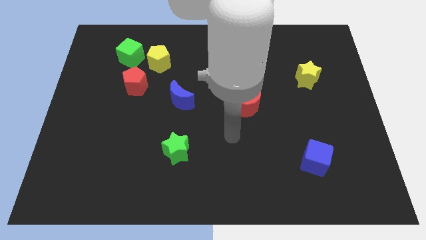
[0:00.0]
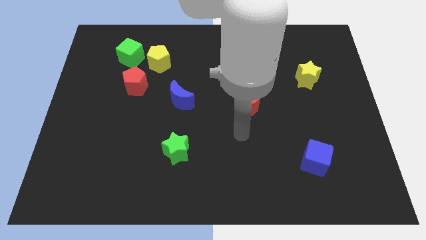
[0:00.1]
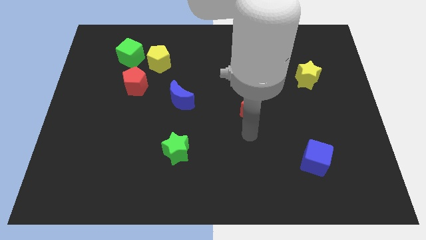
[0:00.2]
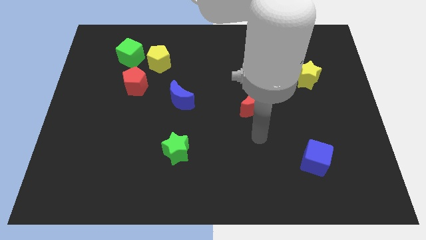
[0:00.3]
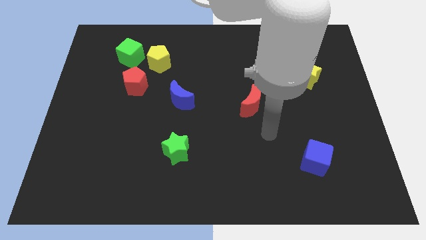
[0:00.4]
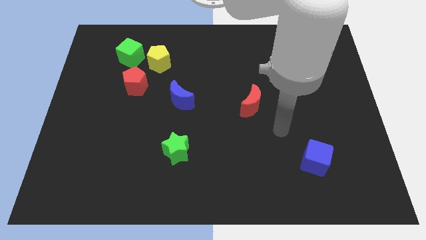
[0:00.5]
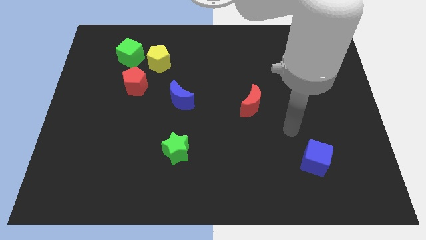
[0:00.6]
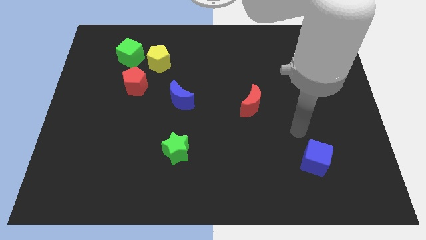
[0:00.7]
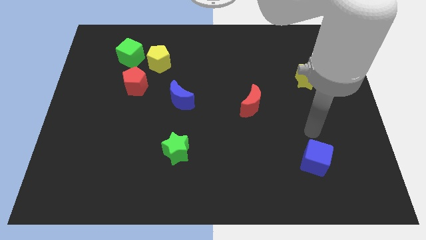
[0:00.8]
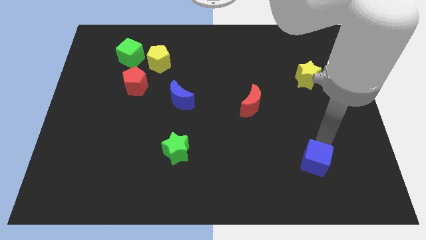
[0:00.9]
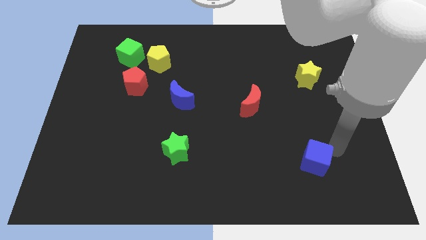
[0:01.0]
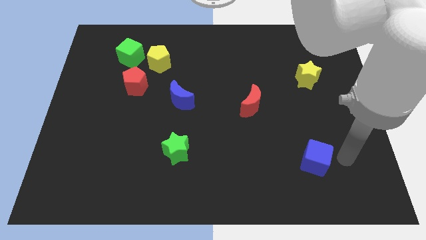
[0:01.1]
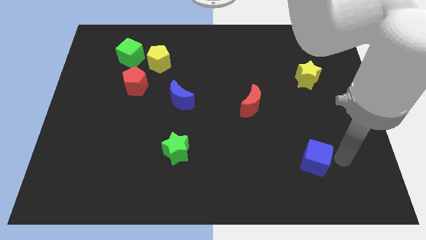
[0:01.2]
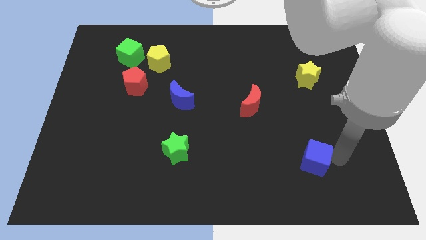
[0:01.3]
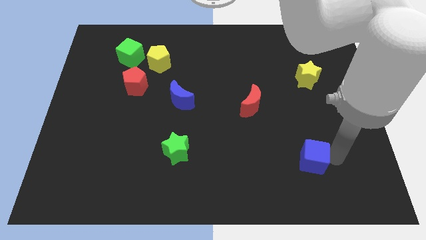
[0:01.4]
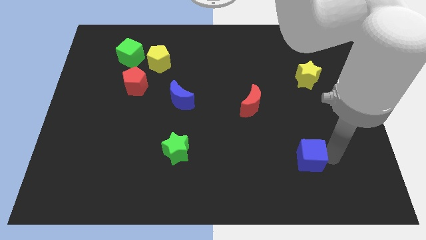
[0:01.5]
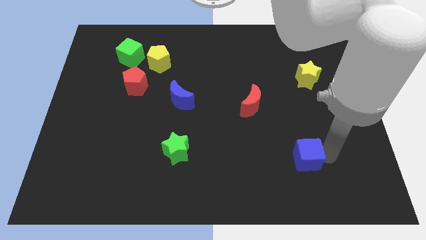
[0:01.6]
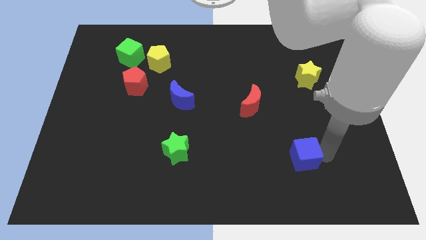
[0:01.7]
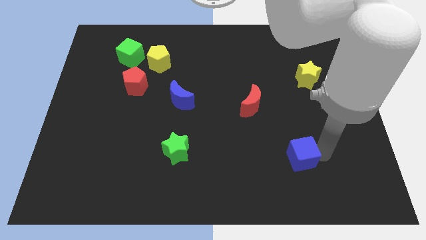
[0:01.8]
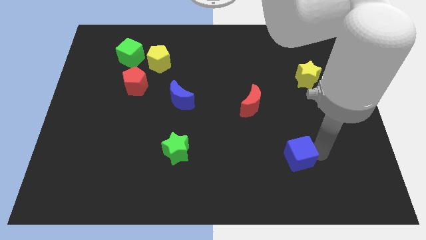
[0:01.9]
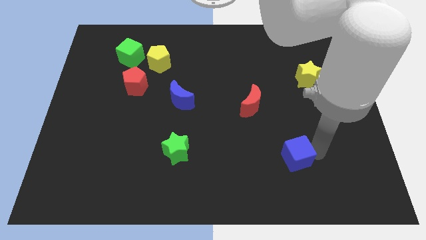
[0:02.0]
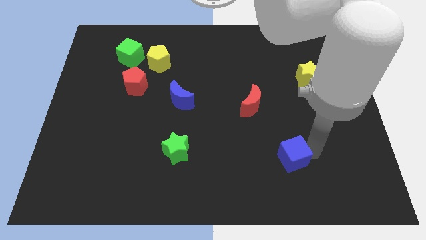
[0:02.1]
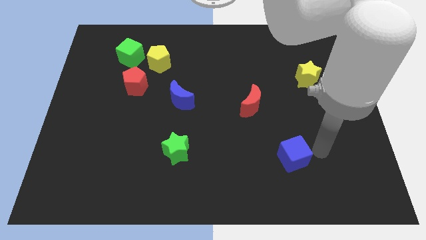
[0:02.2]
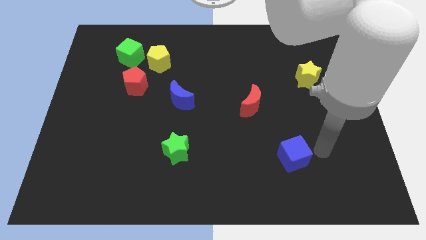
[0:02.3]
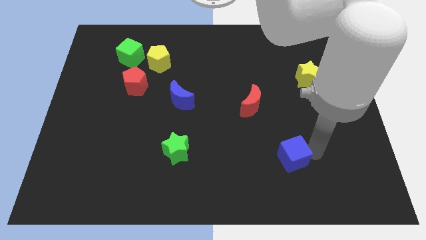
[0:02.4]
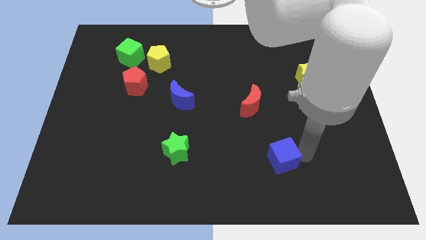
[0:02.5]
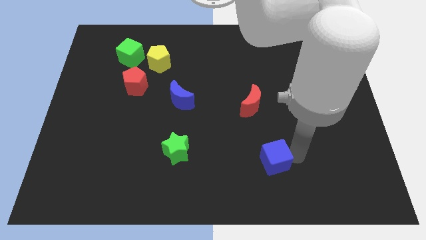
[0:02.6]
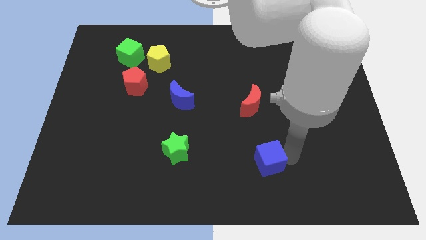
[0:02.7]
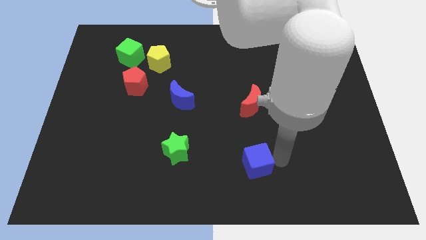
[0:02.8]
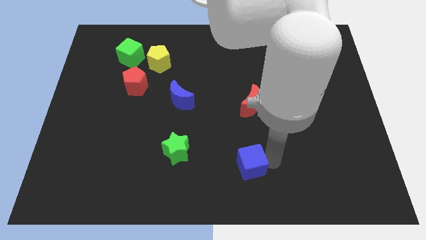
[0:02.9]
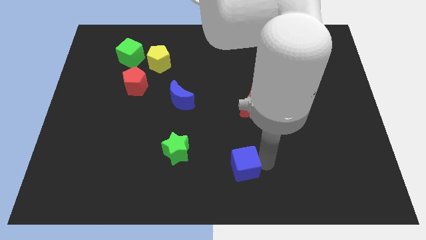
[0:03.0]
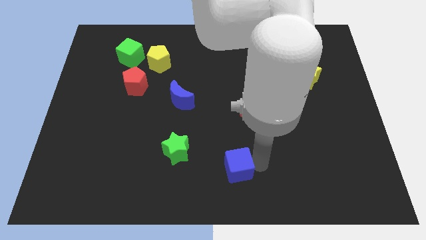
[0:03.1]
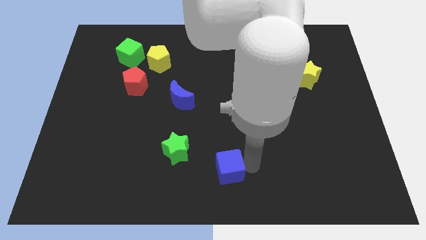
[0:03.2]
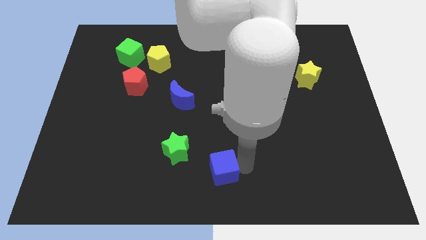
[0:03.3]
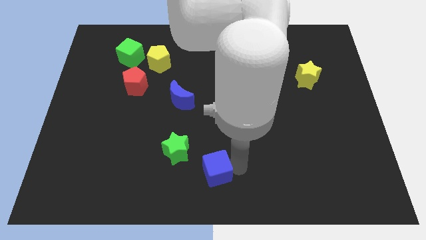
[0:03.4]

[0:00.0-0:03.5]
push the blue cube to the left

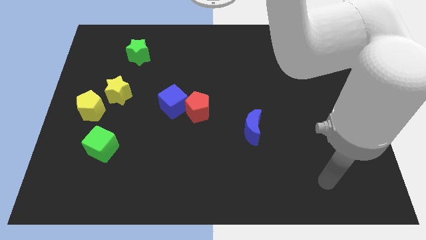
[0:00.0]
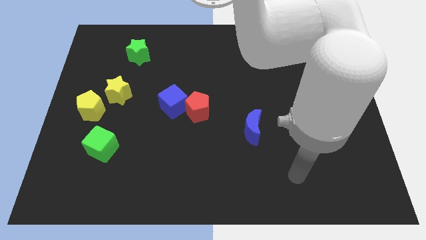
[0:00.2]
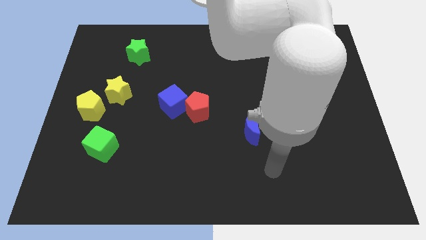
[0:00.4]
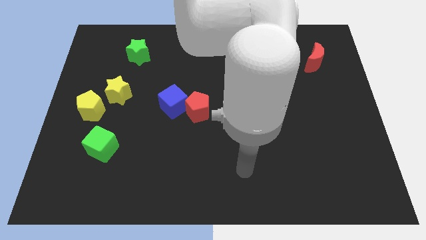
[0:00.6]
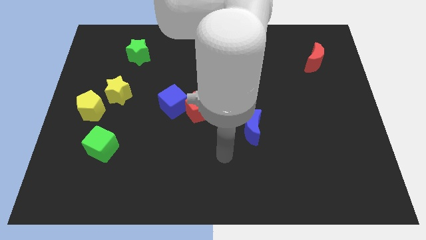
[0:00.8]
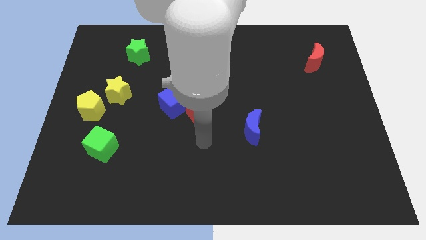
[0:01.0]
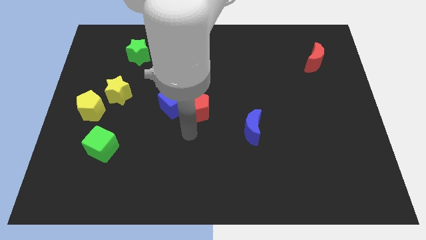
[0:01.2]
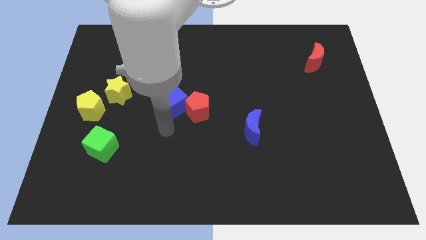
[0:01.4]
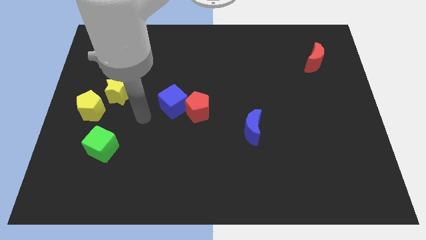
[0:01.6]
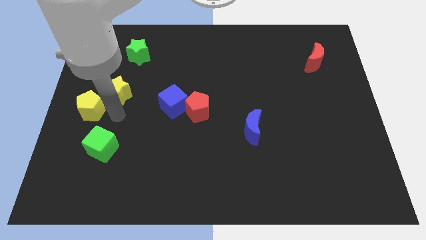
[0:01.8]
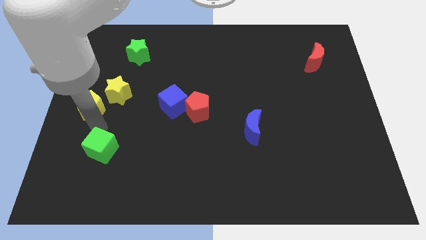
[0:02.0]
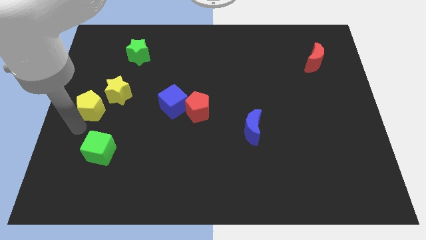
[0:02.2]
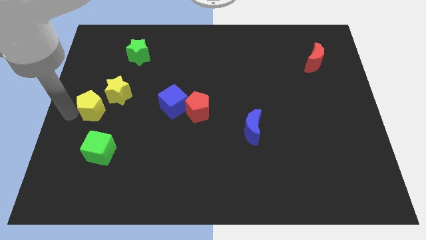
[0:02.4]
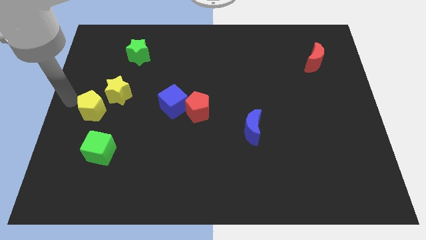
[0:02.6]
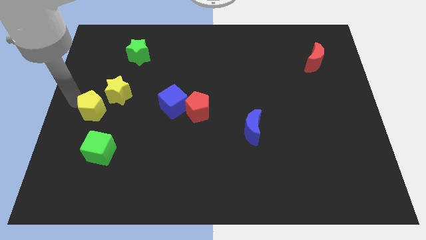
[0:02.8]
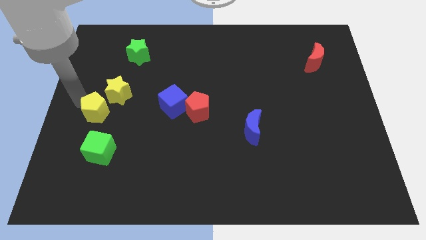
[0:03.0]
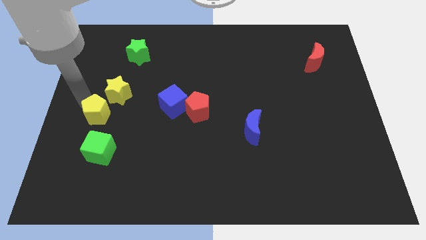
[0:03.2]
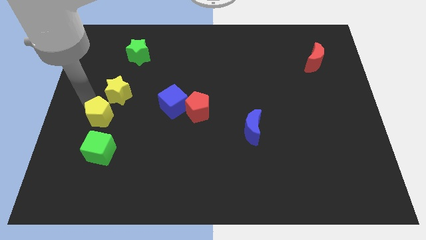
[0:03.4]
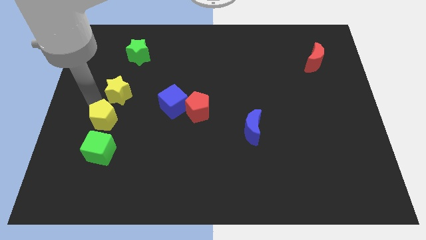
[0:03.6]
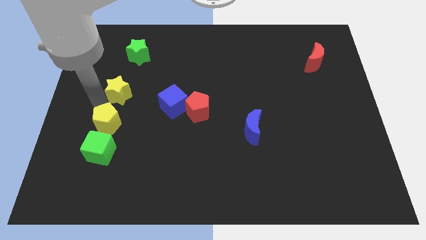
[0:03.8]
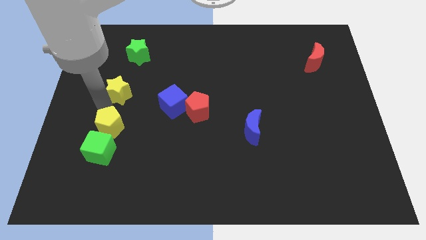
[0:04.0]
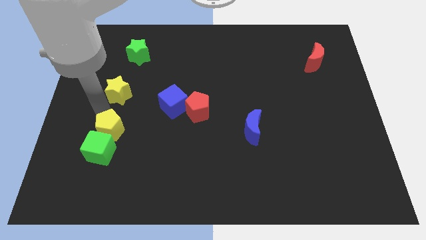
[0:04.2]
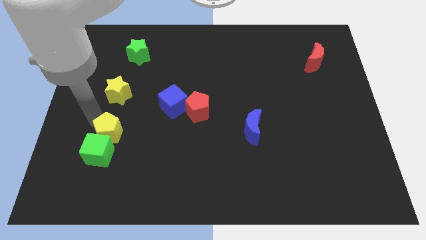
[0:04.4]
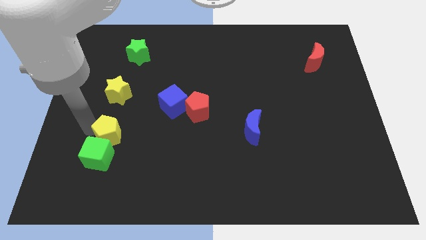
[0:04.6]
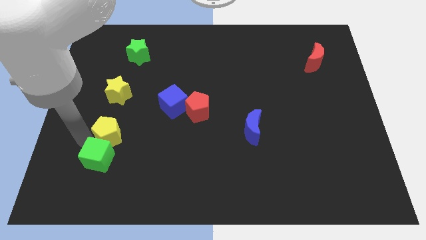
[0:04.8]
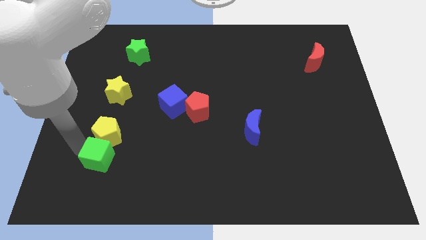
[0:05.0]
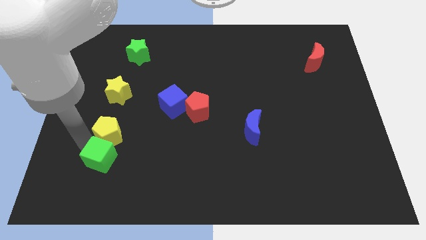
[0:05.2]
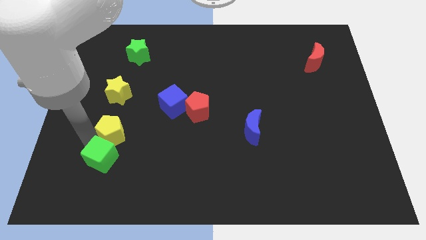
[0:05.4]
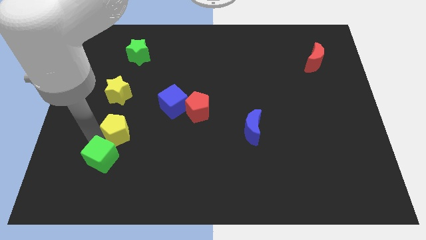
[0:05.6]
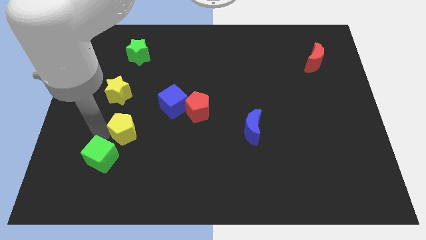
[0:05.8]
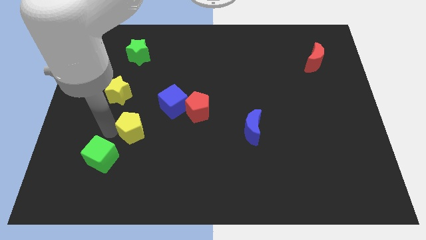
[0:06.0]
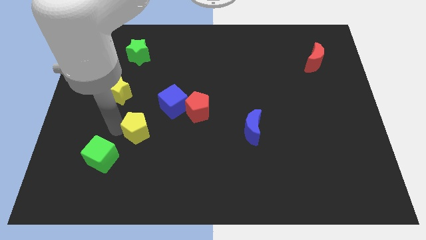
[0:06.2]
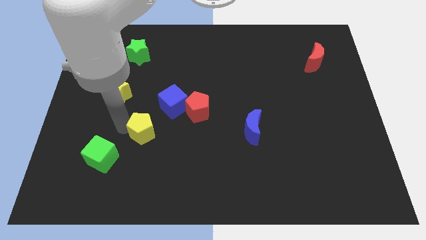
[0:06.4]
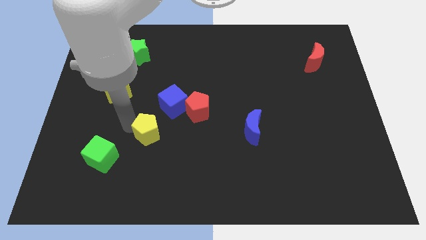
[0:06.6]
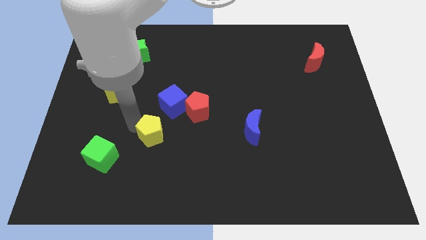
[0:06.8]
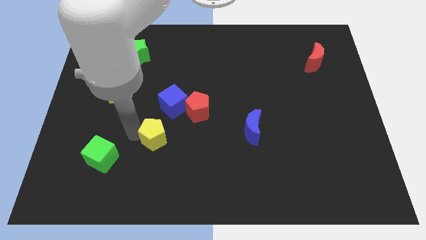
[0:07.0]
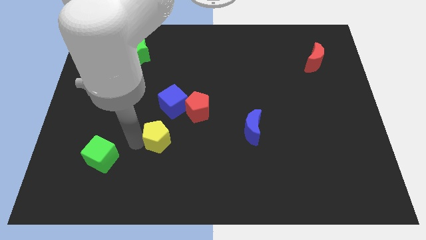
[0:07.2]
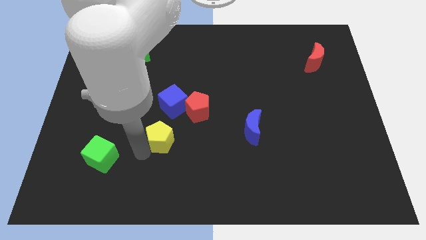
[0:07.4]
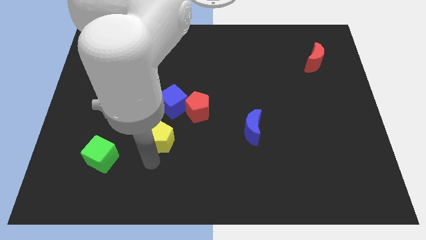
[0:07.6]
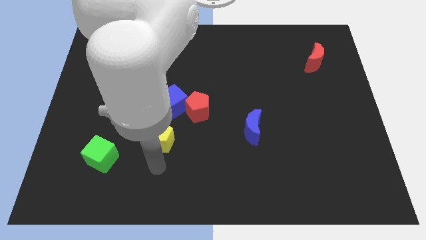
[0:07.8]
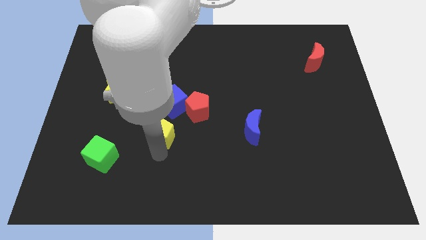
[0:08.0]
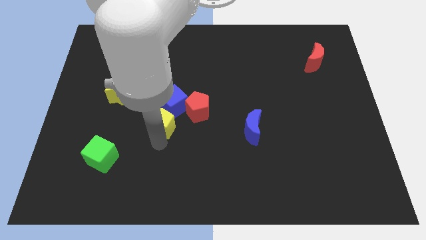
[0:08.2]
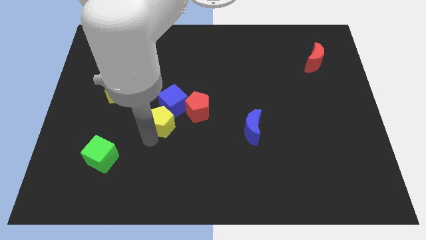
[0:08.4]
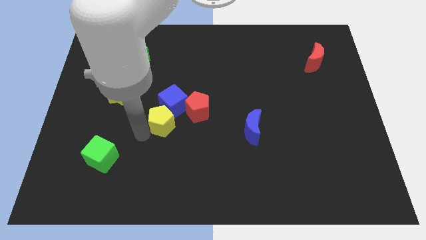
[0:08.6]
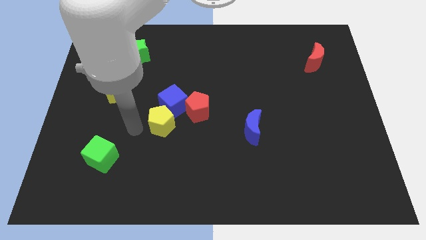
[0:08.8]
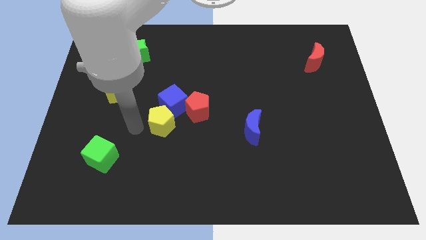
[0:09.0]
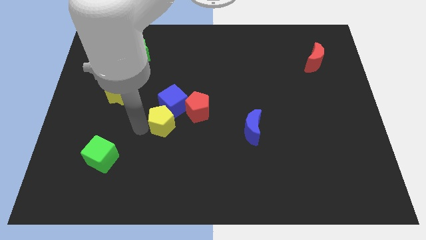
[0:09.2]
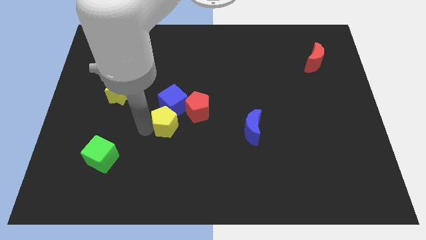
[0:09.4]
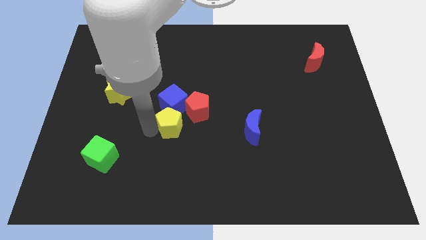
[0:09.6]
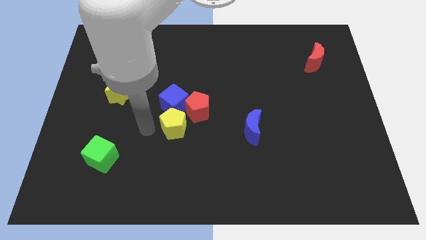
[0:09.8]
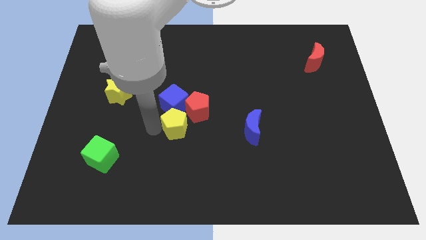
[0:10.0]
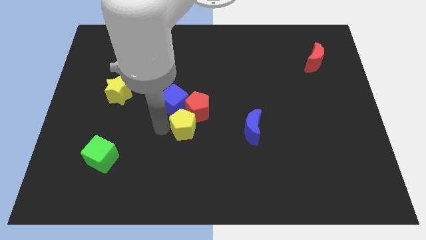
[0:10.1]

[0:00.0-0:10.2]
move the yellow pentagon to the right
